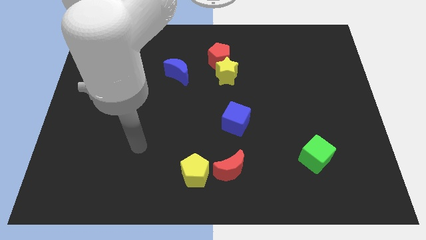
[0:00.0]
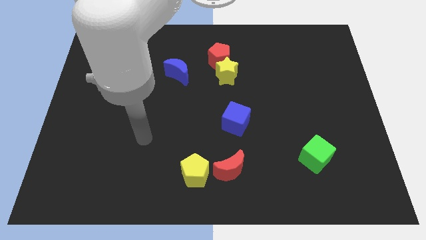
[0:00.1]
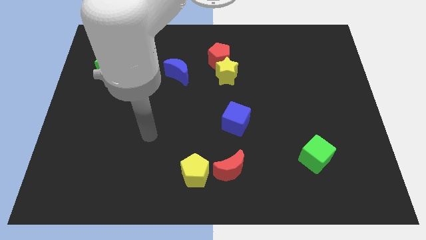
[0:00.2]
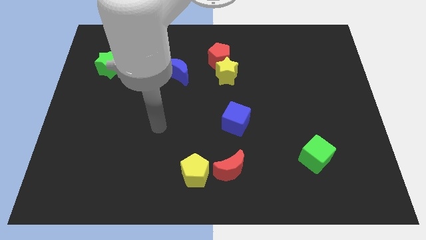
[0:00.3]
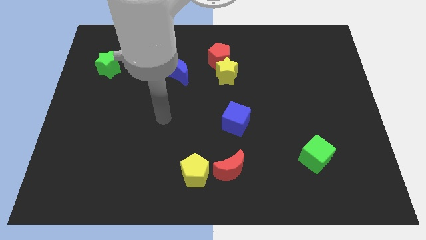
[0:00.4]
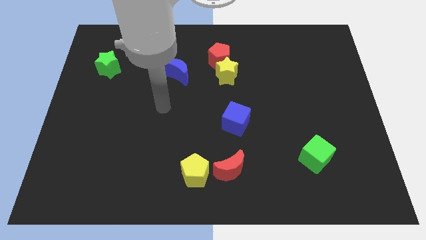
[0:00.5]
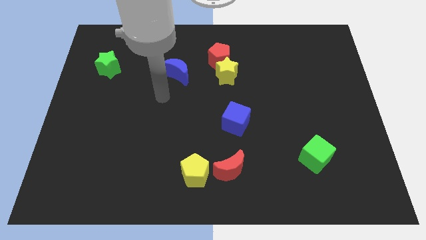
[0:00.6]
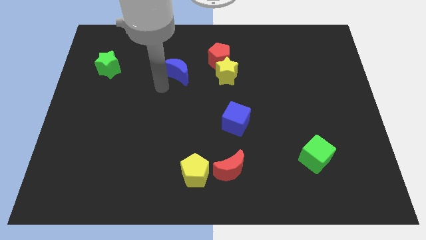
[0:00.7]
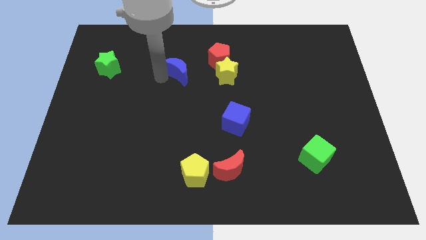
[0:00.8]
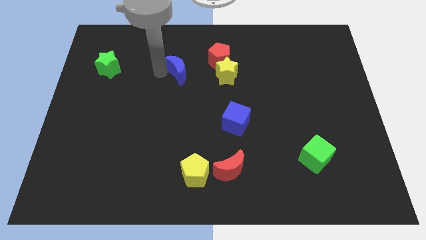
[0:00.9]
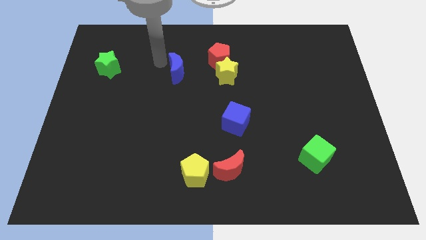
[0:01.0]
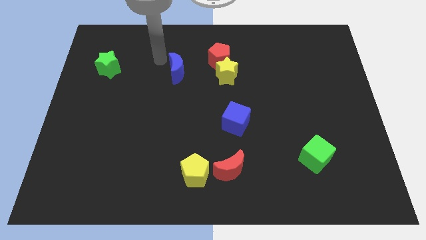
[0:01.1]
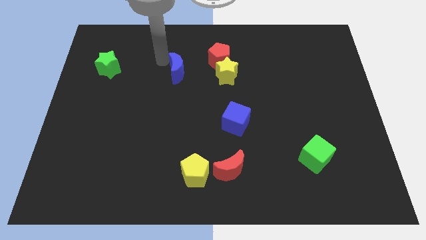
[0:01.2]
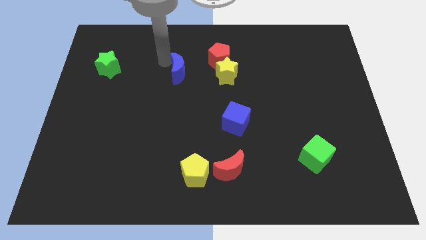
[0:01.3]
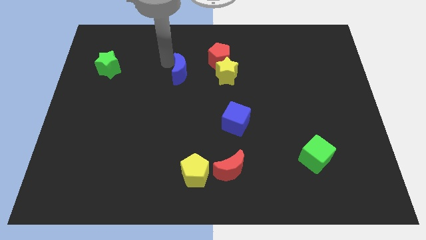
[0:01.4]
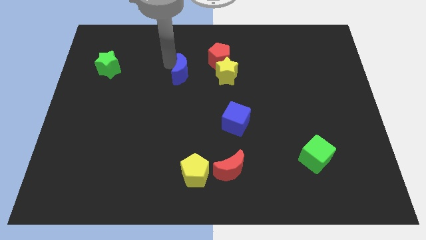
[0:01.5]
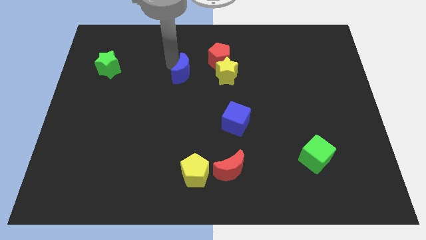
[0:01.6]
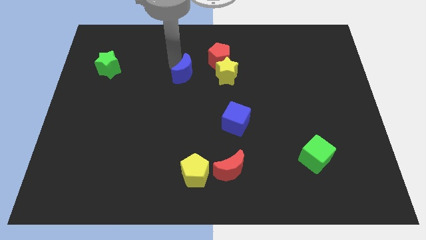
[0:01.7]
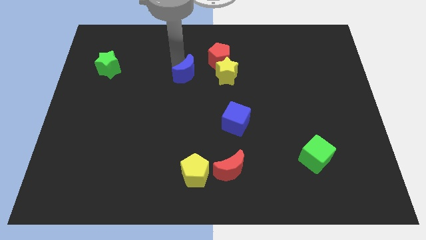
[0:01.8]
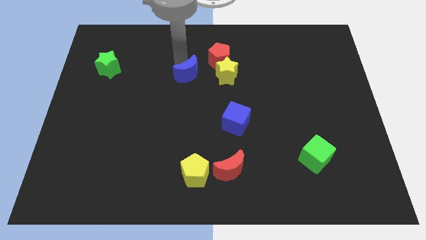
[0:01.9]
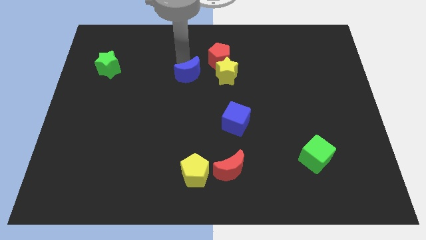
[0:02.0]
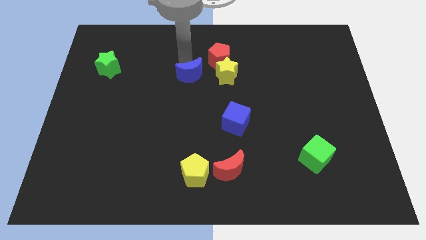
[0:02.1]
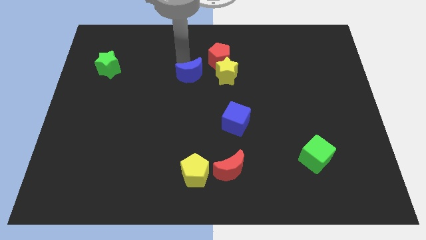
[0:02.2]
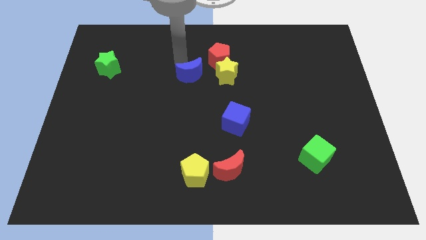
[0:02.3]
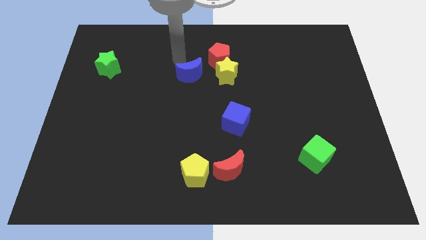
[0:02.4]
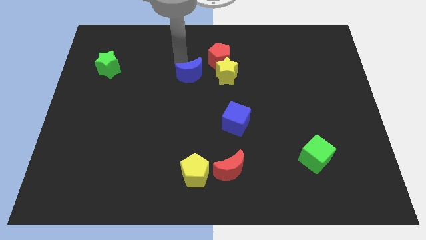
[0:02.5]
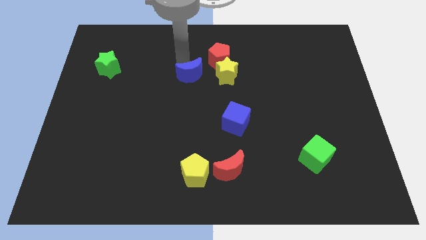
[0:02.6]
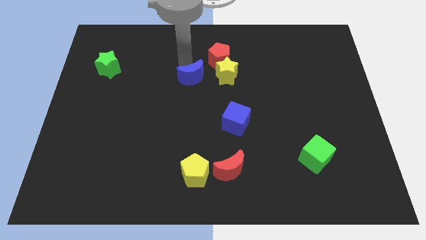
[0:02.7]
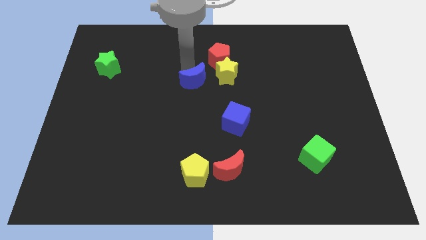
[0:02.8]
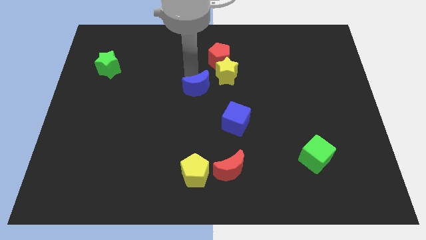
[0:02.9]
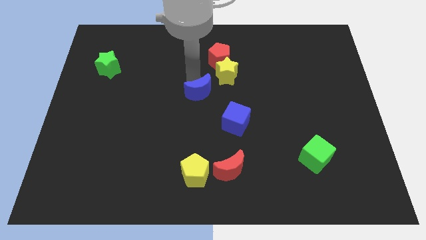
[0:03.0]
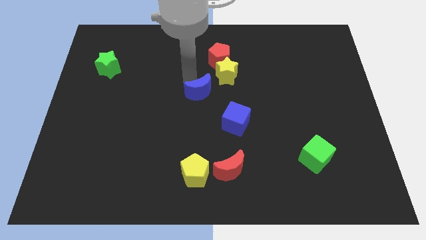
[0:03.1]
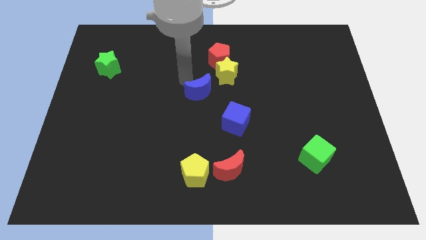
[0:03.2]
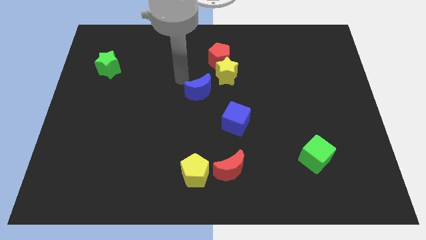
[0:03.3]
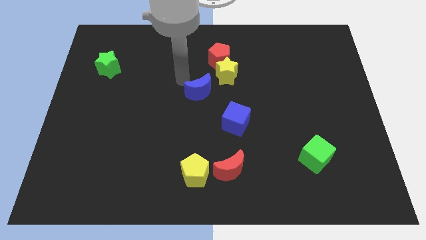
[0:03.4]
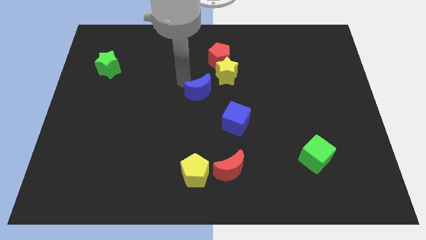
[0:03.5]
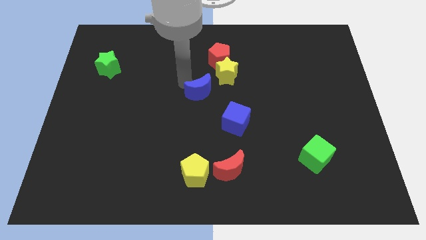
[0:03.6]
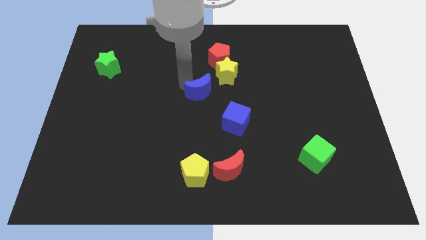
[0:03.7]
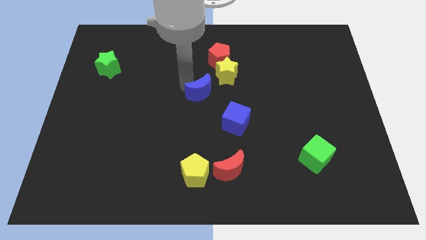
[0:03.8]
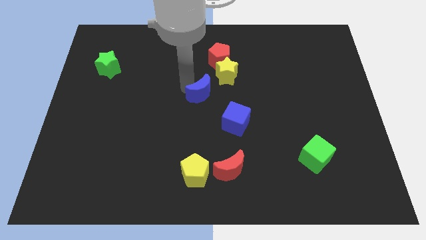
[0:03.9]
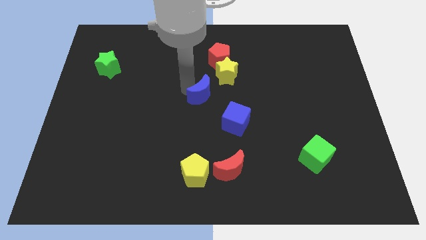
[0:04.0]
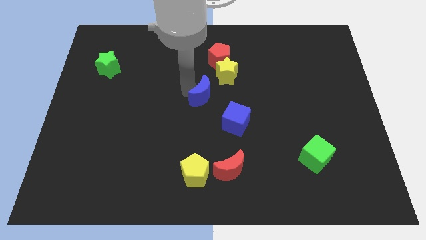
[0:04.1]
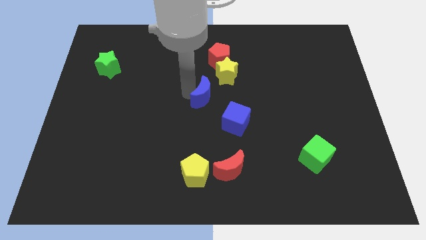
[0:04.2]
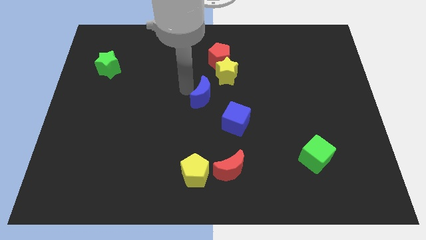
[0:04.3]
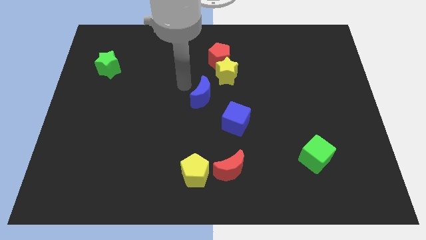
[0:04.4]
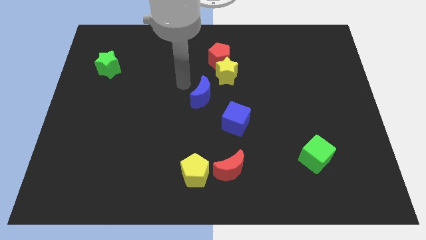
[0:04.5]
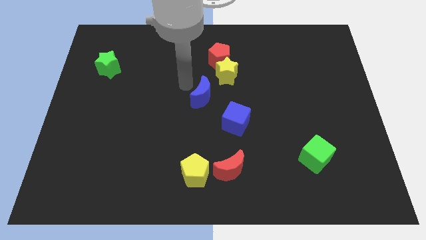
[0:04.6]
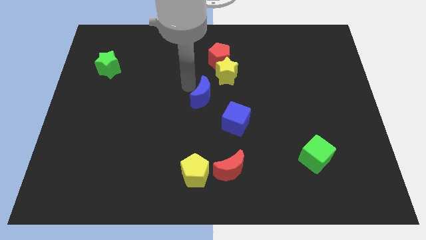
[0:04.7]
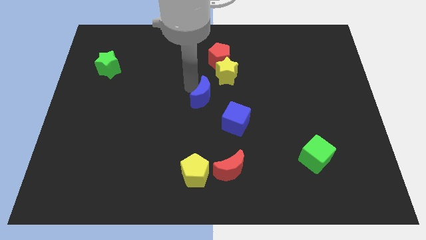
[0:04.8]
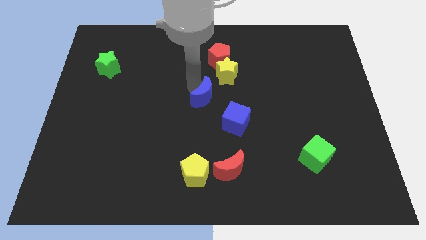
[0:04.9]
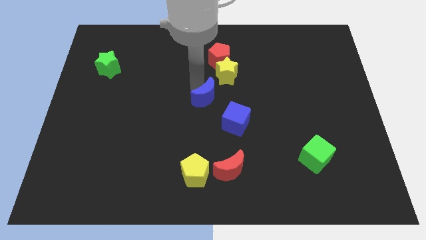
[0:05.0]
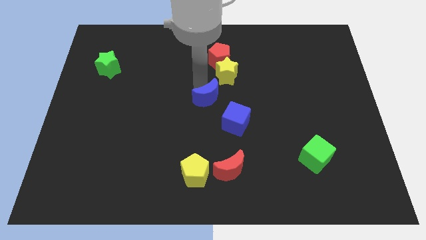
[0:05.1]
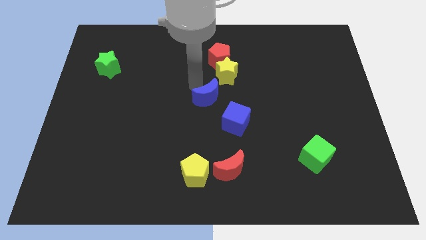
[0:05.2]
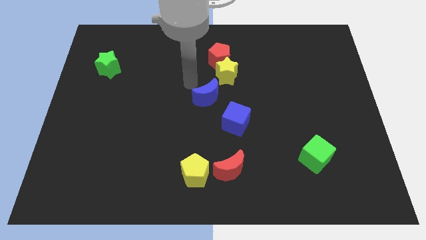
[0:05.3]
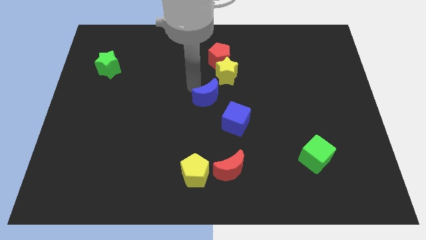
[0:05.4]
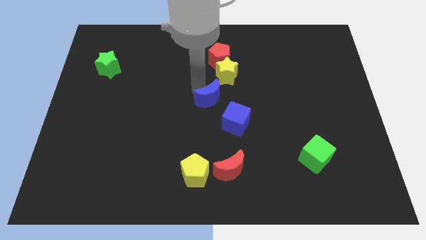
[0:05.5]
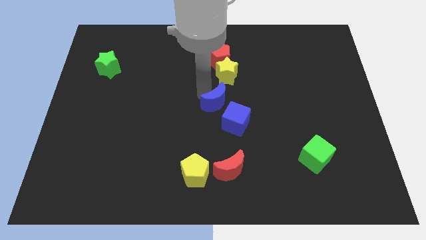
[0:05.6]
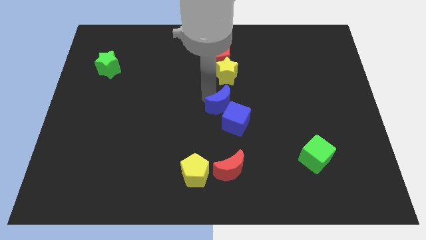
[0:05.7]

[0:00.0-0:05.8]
move the blue moon next to the blue cube

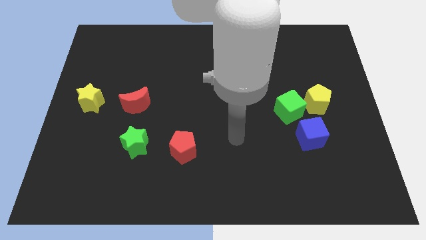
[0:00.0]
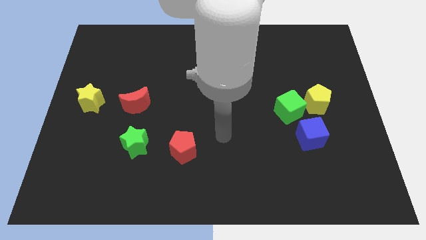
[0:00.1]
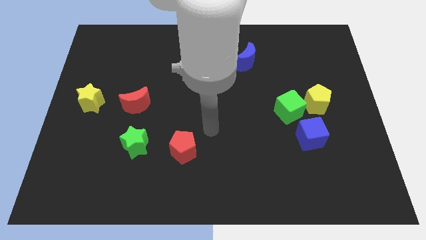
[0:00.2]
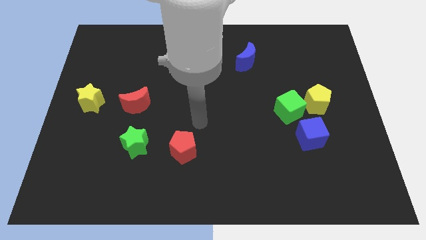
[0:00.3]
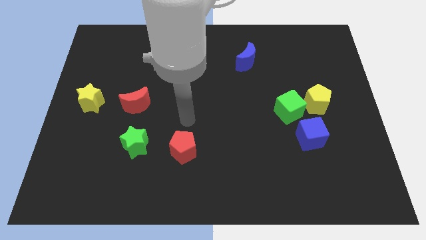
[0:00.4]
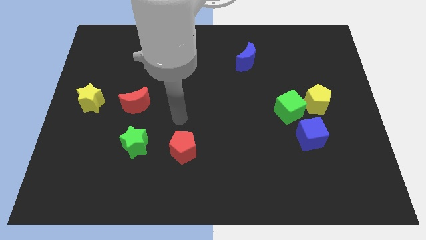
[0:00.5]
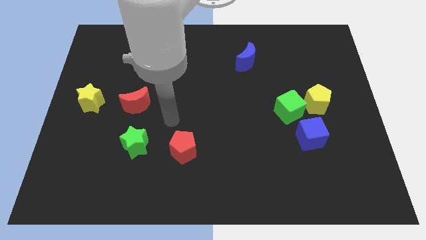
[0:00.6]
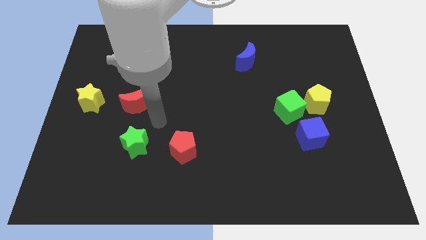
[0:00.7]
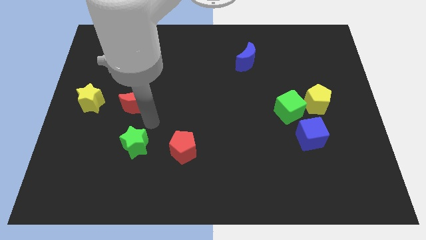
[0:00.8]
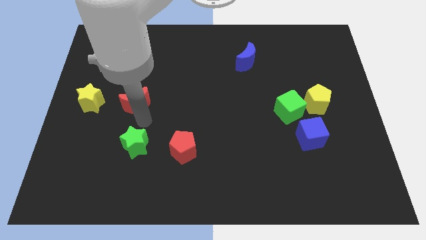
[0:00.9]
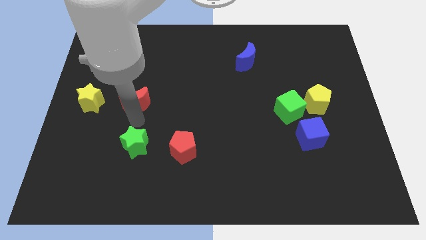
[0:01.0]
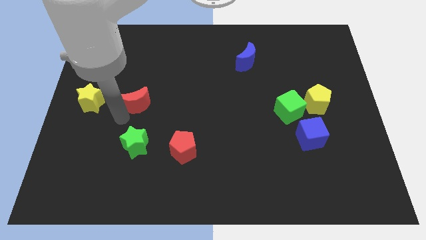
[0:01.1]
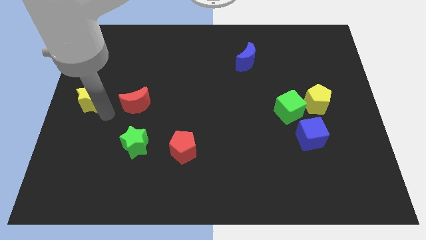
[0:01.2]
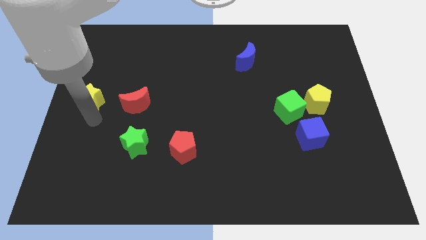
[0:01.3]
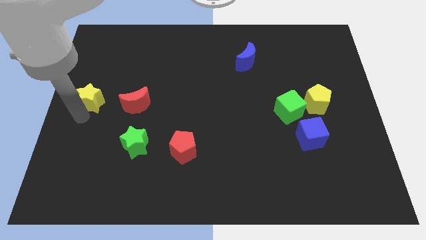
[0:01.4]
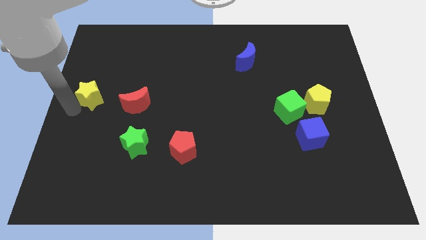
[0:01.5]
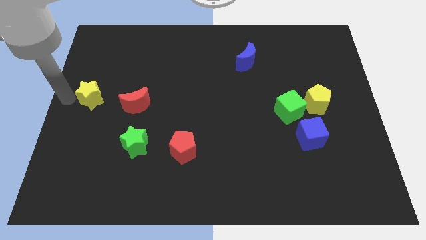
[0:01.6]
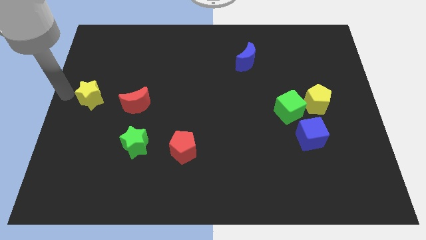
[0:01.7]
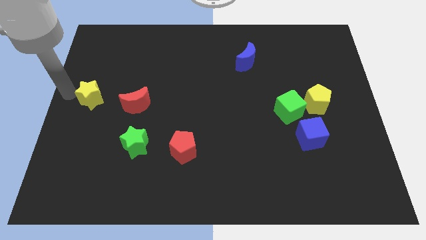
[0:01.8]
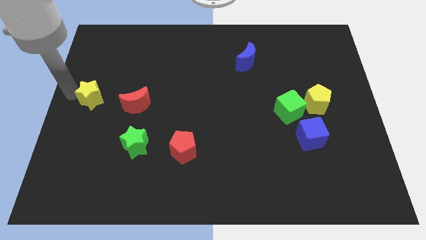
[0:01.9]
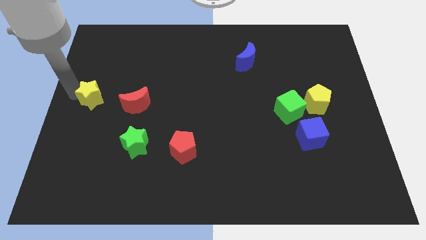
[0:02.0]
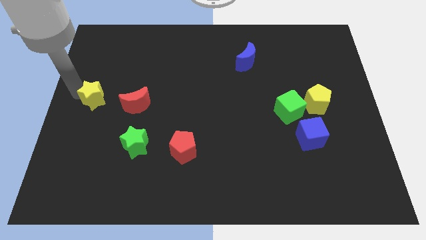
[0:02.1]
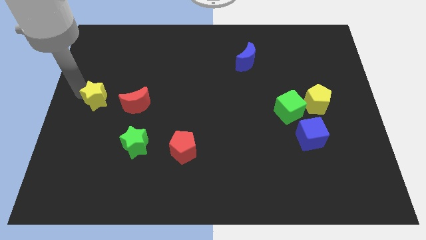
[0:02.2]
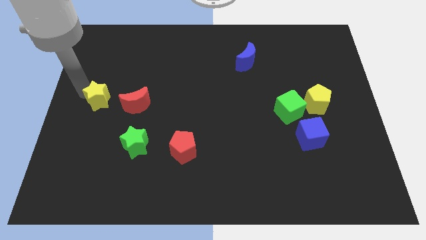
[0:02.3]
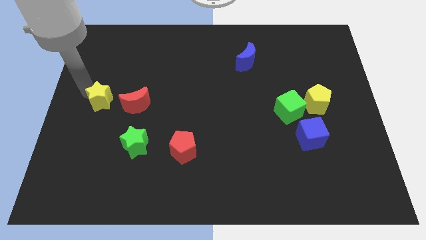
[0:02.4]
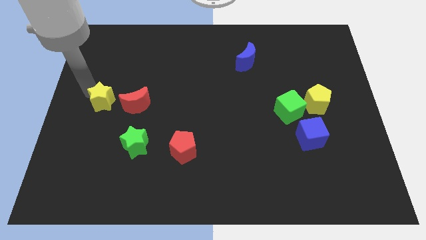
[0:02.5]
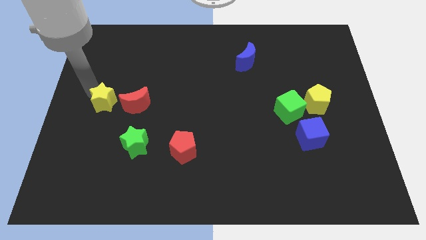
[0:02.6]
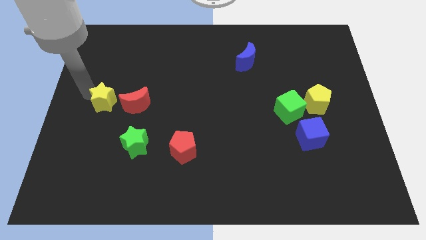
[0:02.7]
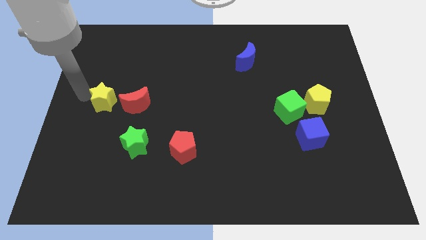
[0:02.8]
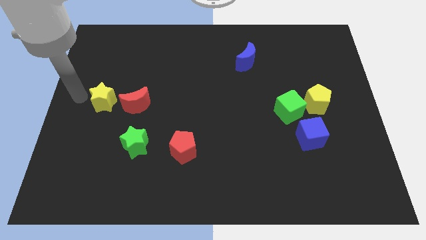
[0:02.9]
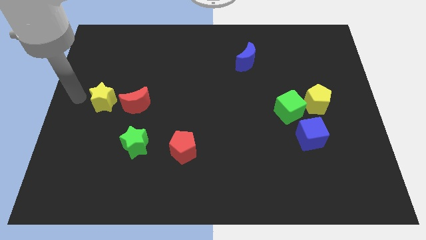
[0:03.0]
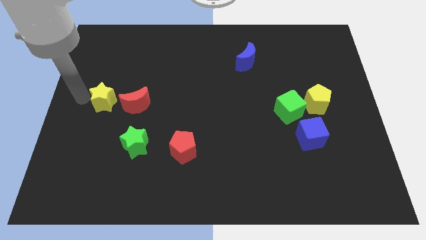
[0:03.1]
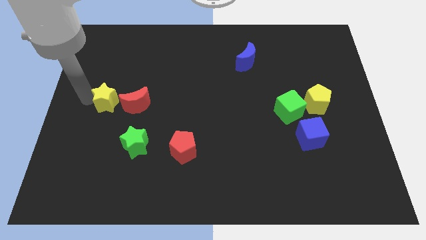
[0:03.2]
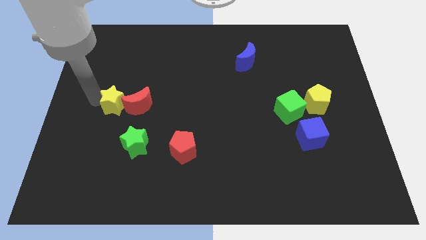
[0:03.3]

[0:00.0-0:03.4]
move the yellow star towards the red moon
